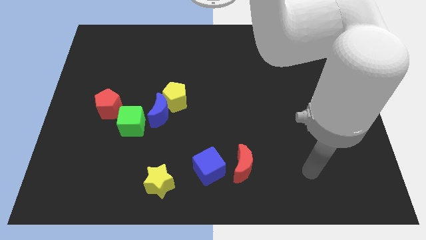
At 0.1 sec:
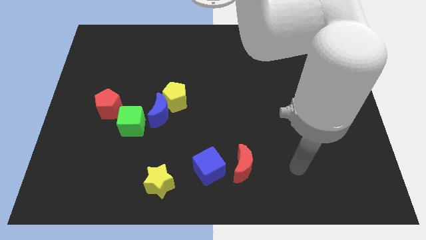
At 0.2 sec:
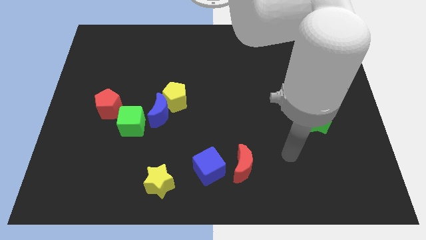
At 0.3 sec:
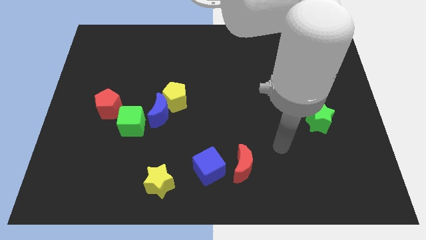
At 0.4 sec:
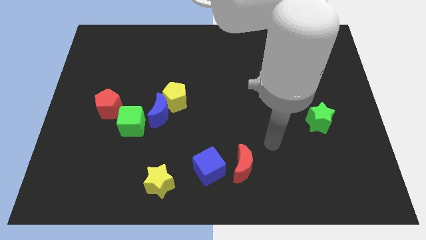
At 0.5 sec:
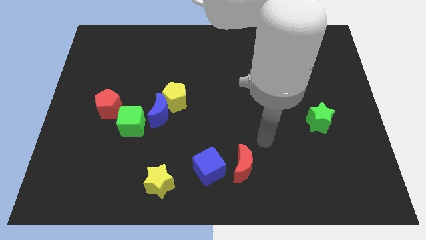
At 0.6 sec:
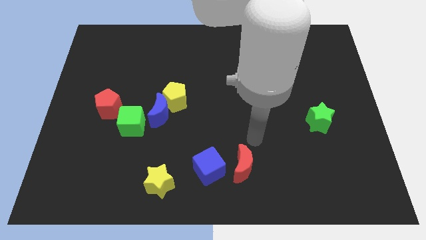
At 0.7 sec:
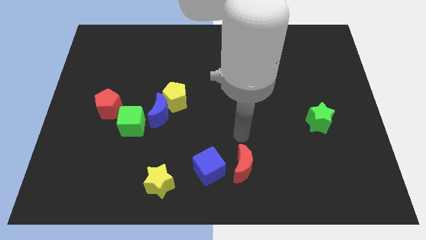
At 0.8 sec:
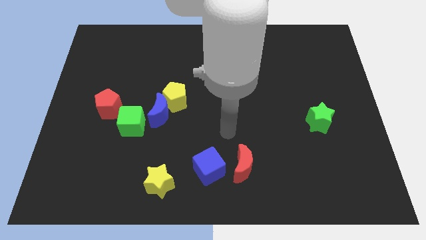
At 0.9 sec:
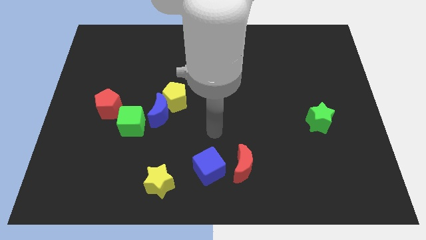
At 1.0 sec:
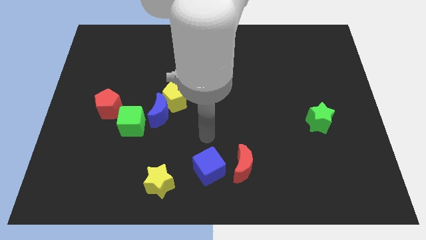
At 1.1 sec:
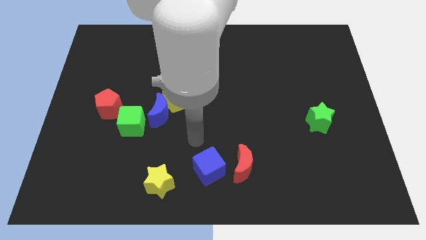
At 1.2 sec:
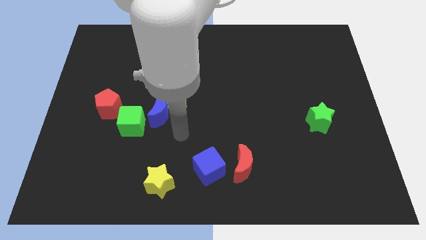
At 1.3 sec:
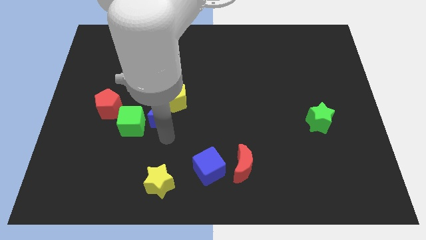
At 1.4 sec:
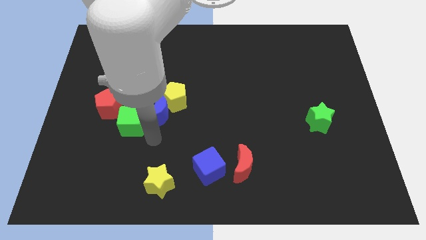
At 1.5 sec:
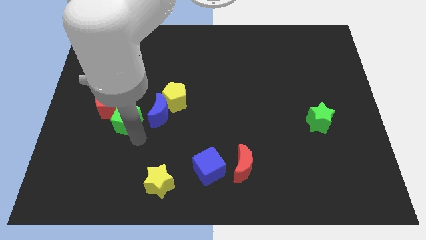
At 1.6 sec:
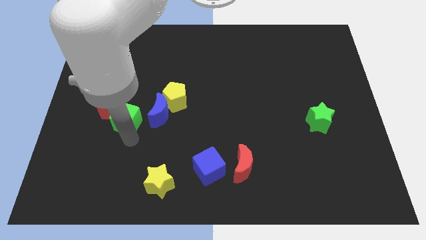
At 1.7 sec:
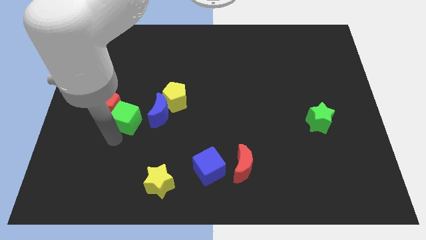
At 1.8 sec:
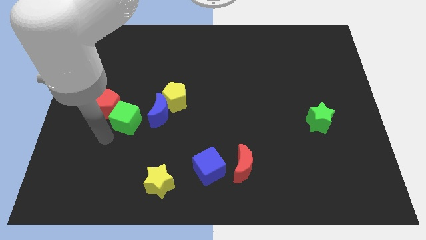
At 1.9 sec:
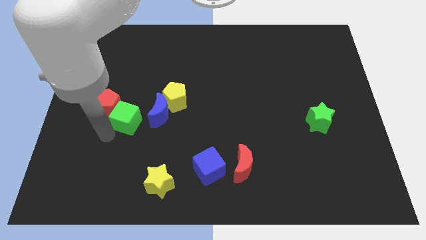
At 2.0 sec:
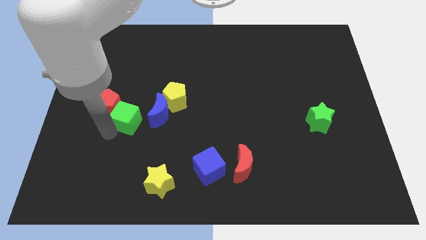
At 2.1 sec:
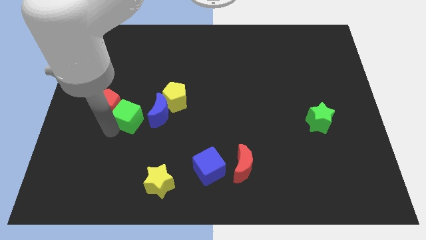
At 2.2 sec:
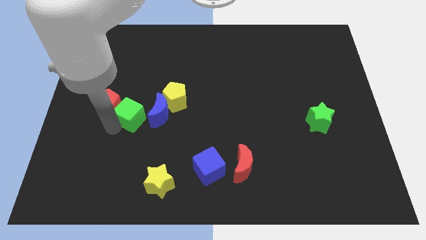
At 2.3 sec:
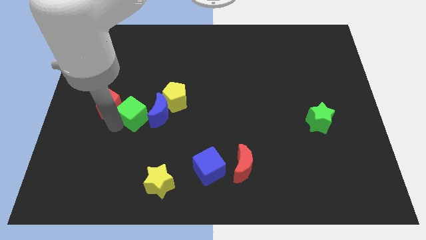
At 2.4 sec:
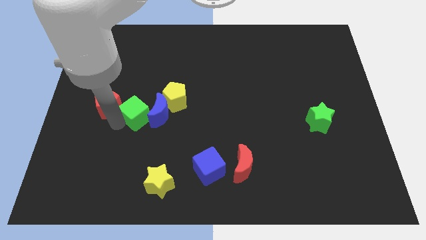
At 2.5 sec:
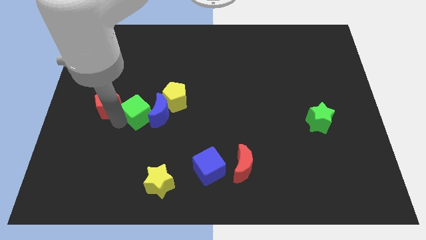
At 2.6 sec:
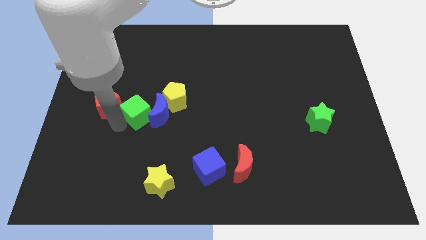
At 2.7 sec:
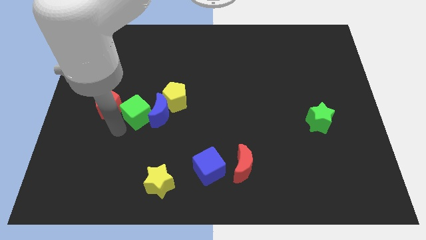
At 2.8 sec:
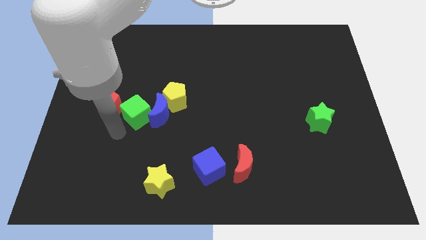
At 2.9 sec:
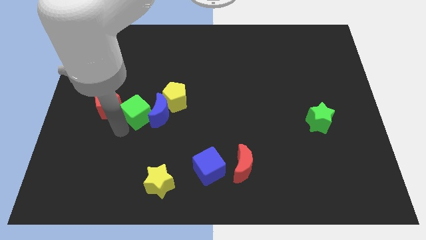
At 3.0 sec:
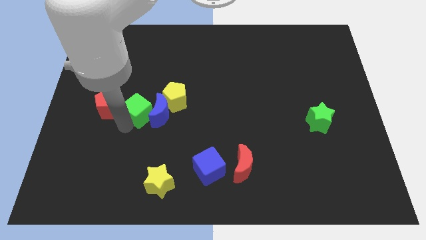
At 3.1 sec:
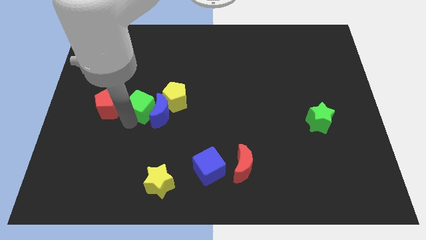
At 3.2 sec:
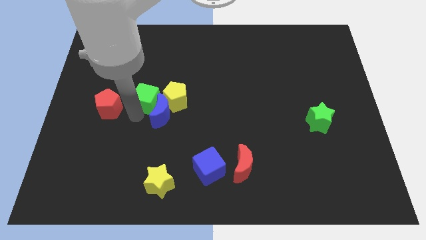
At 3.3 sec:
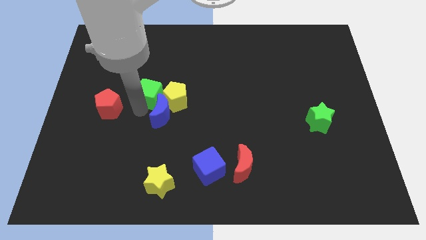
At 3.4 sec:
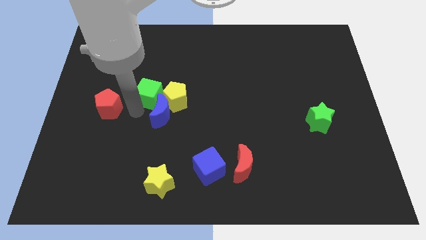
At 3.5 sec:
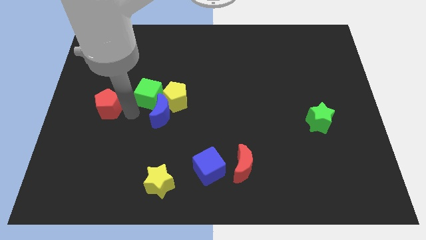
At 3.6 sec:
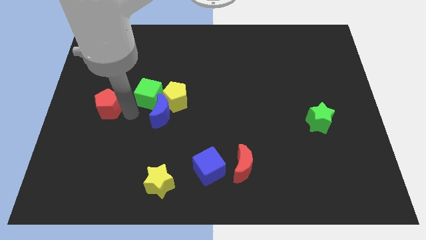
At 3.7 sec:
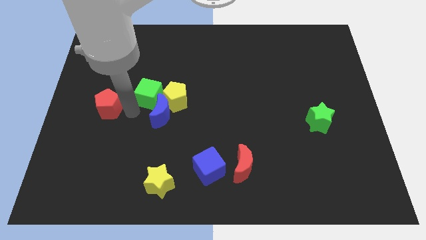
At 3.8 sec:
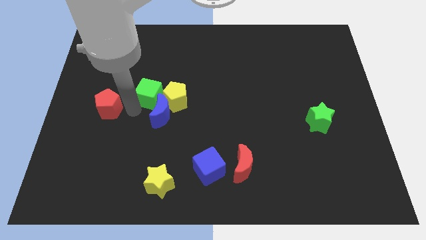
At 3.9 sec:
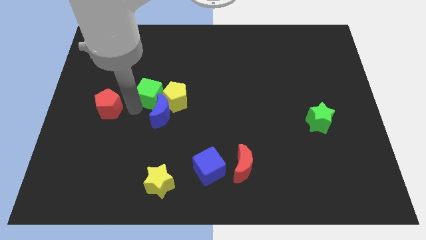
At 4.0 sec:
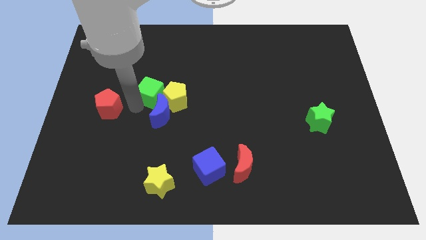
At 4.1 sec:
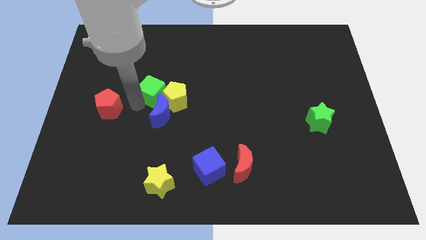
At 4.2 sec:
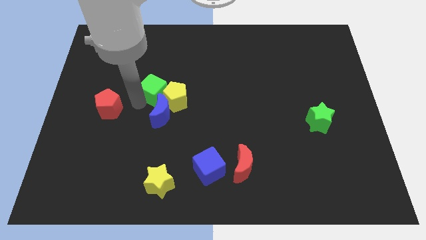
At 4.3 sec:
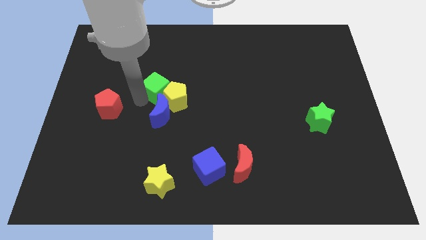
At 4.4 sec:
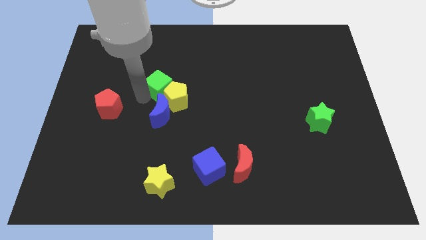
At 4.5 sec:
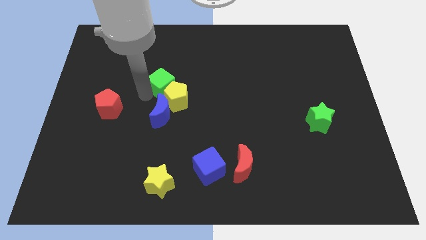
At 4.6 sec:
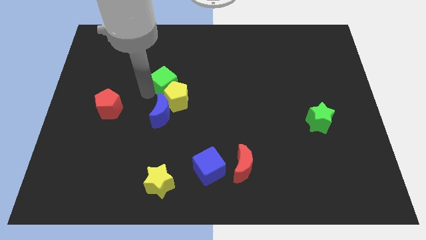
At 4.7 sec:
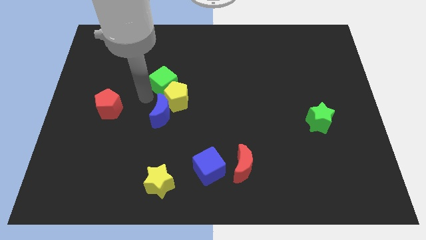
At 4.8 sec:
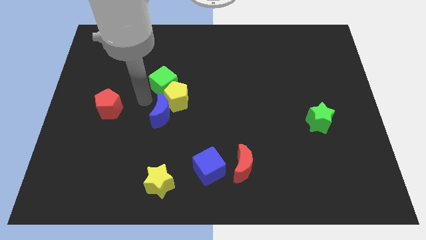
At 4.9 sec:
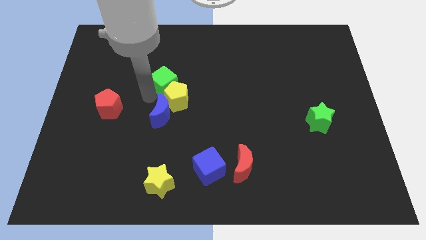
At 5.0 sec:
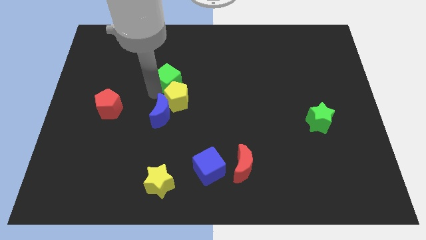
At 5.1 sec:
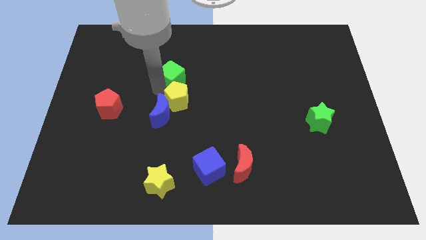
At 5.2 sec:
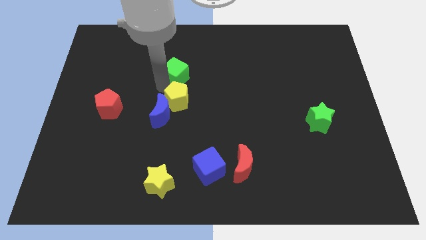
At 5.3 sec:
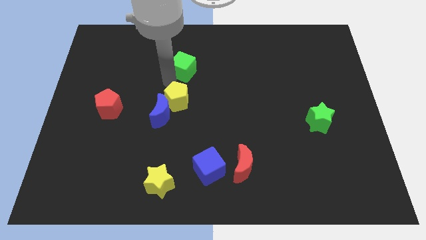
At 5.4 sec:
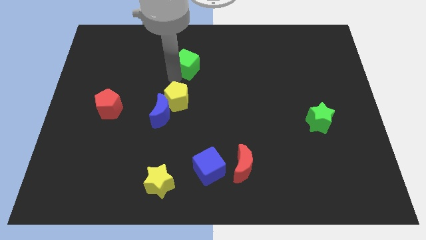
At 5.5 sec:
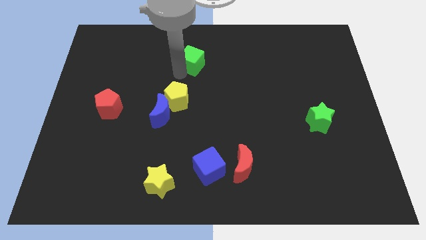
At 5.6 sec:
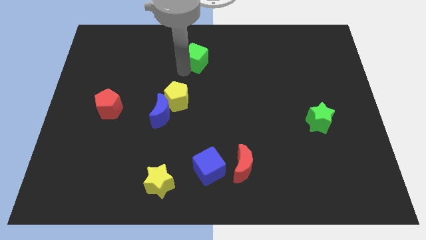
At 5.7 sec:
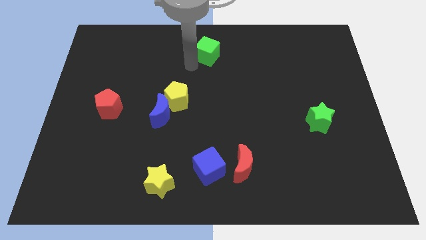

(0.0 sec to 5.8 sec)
push the green cube to the top side
